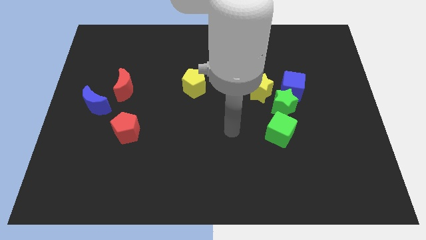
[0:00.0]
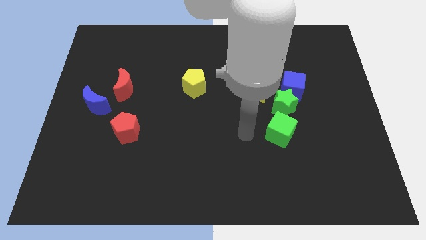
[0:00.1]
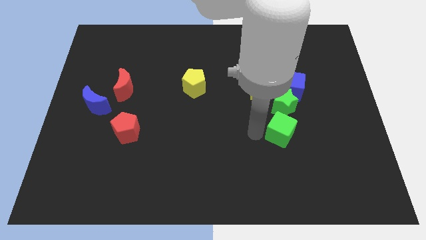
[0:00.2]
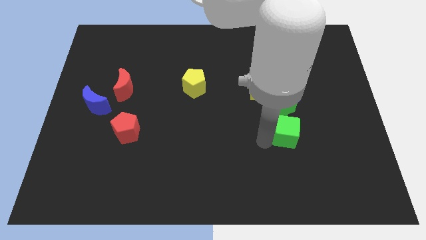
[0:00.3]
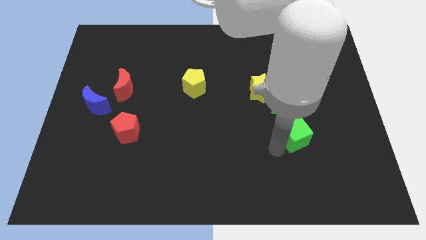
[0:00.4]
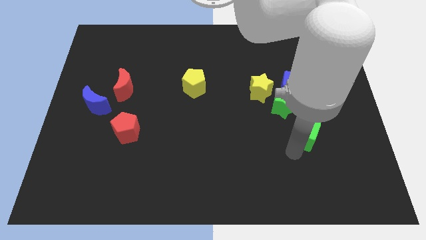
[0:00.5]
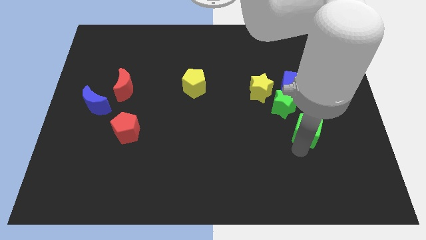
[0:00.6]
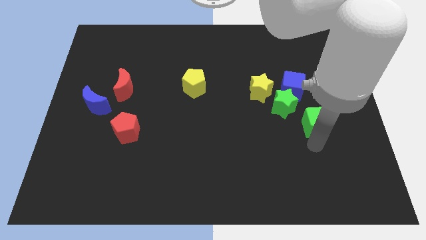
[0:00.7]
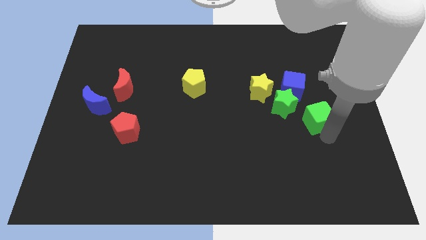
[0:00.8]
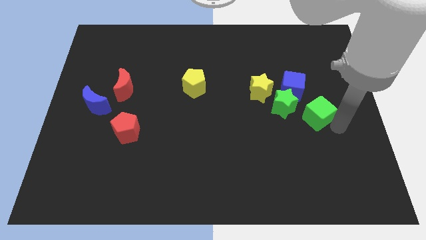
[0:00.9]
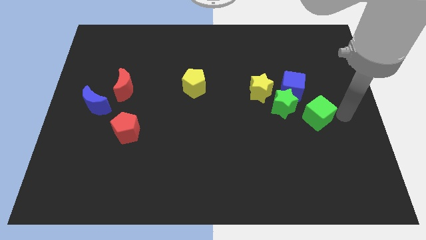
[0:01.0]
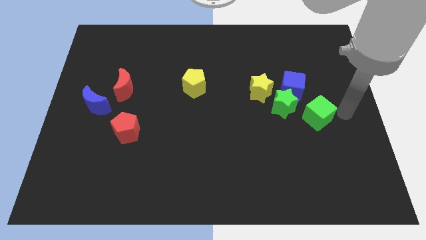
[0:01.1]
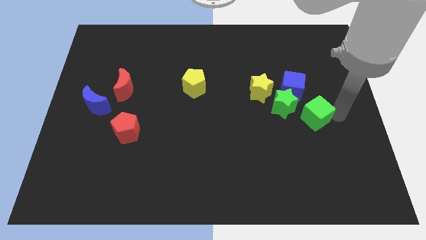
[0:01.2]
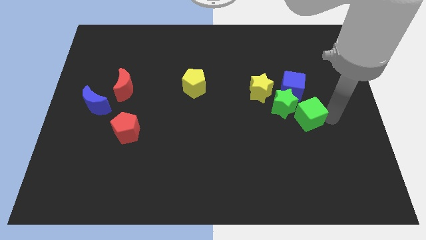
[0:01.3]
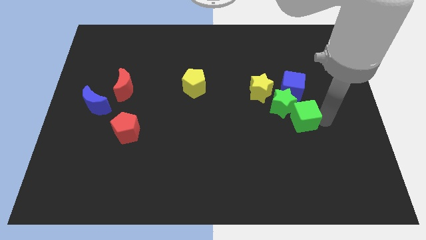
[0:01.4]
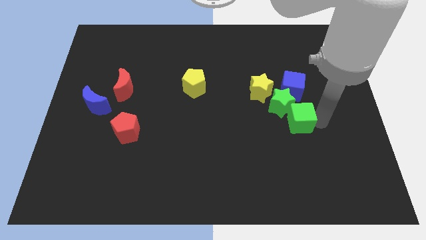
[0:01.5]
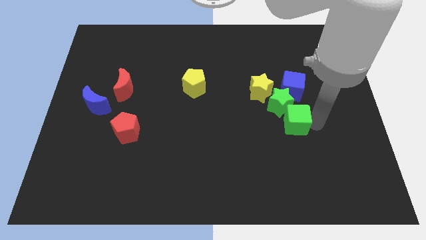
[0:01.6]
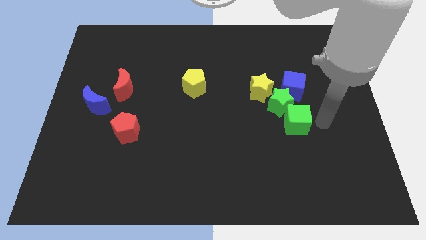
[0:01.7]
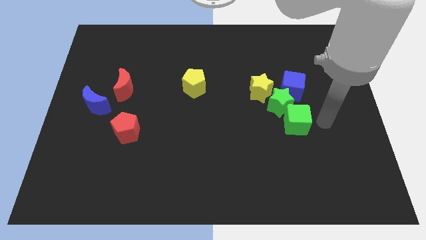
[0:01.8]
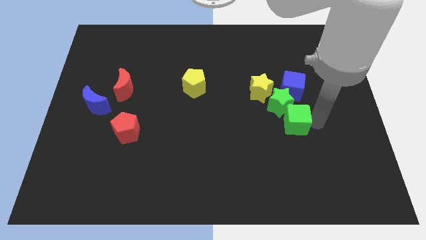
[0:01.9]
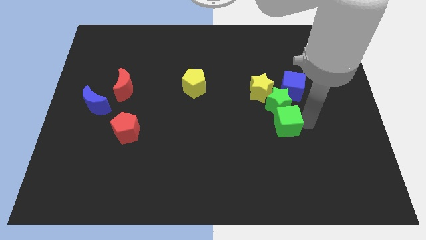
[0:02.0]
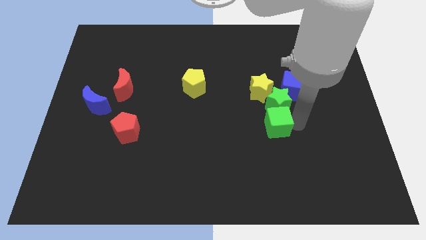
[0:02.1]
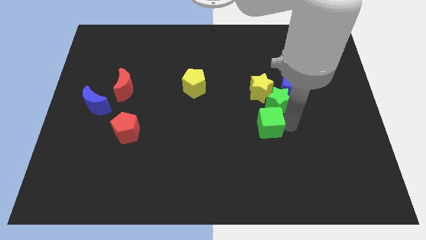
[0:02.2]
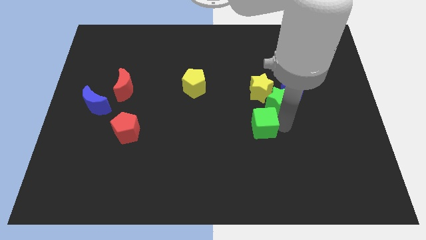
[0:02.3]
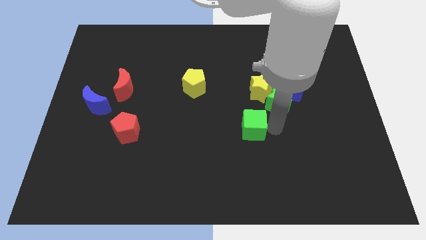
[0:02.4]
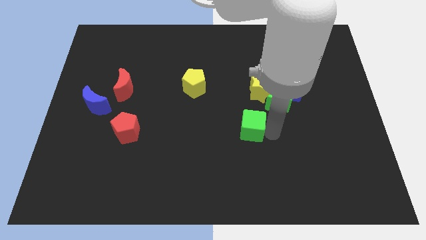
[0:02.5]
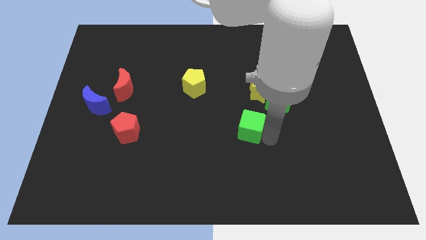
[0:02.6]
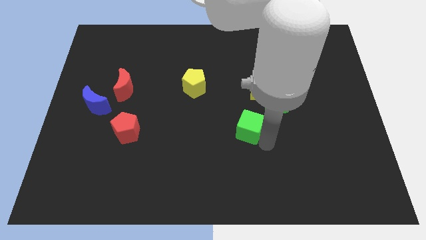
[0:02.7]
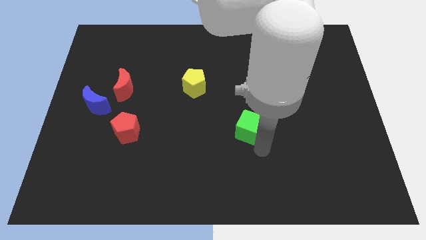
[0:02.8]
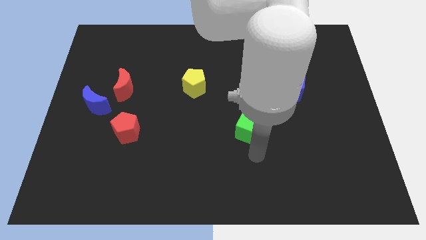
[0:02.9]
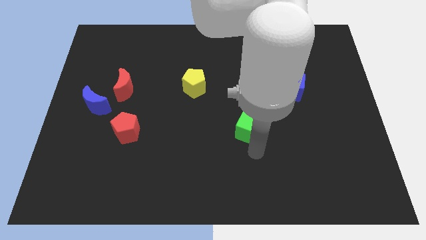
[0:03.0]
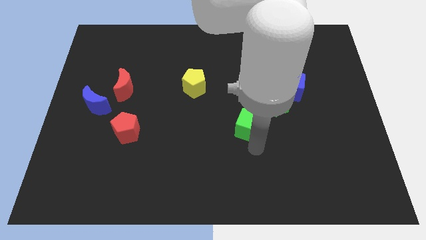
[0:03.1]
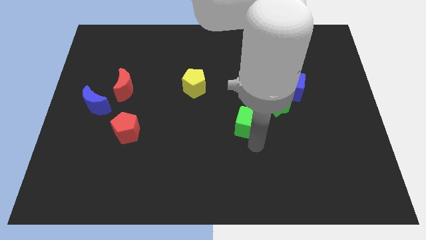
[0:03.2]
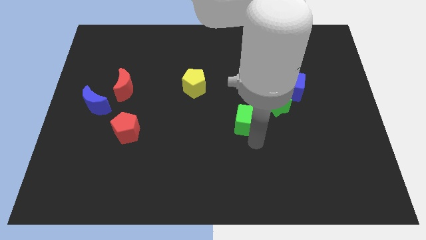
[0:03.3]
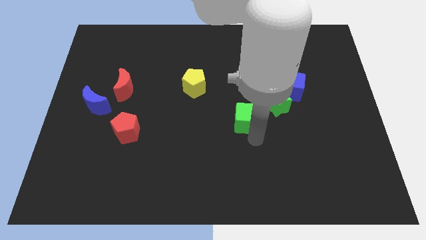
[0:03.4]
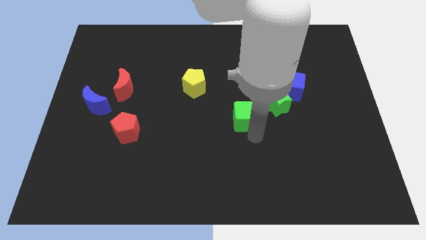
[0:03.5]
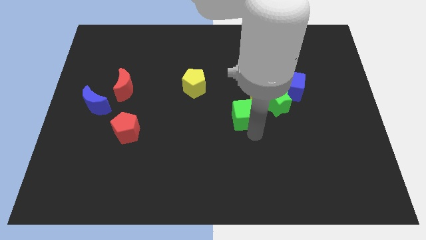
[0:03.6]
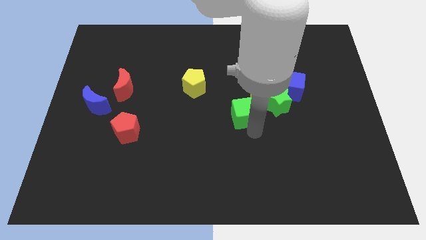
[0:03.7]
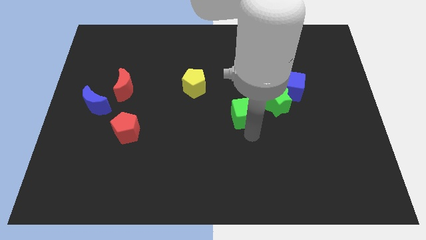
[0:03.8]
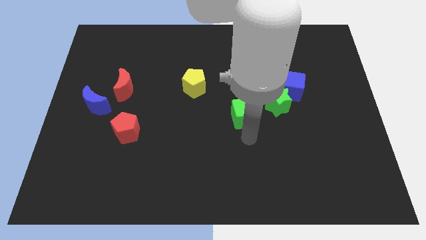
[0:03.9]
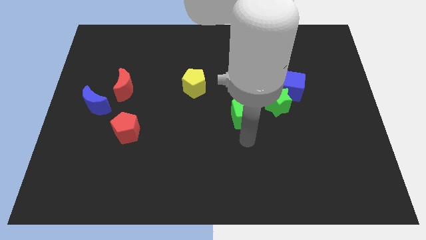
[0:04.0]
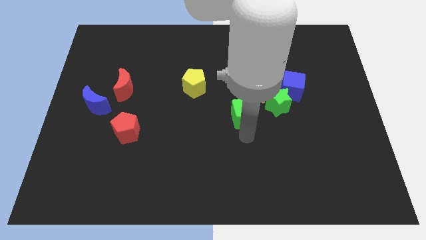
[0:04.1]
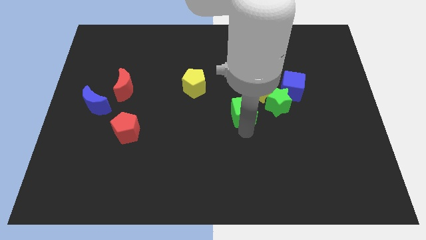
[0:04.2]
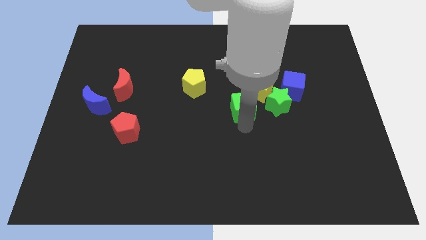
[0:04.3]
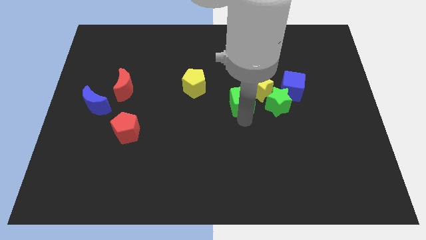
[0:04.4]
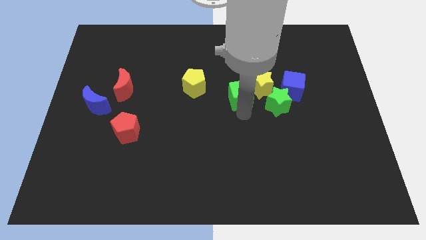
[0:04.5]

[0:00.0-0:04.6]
move the green cube somewhat upwards

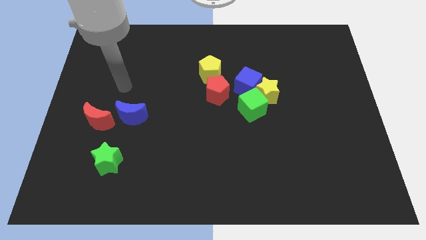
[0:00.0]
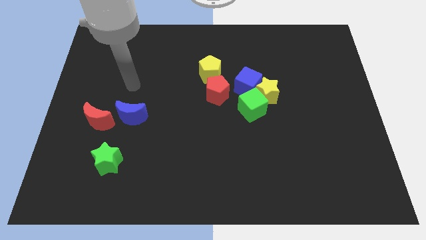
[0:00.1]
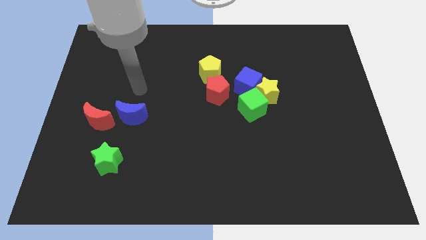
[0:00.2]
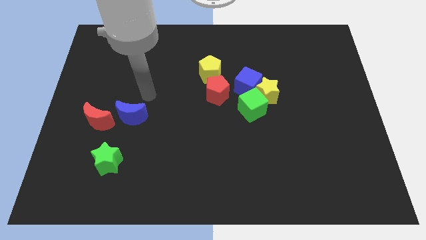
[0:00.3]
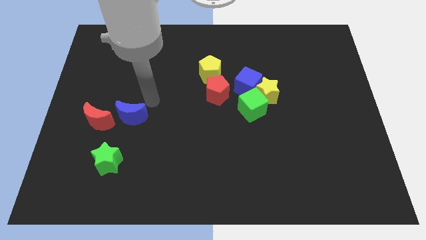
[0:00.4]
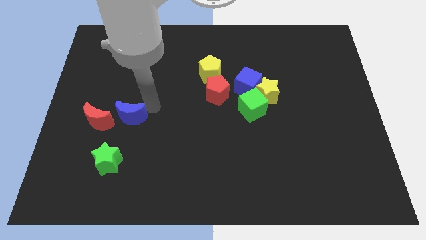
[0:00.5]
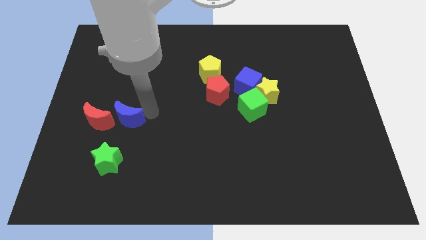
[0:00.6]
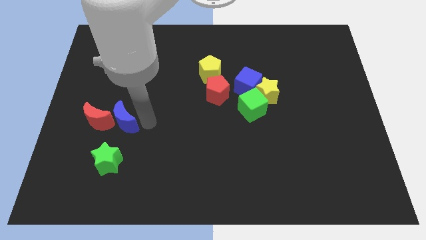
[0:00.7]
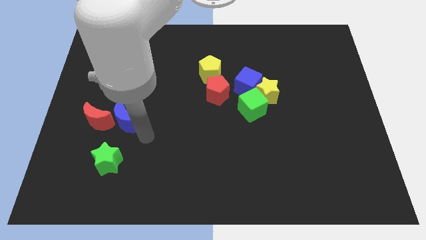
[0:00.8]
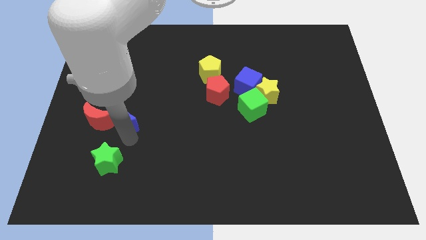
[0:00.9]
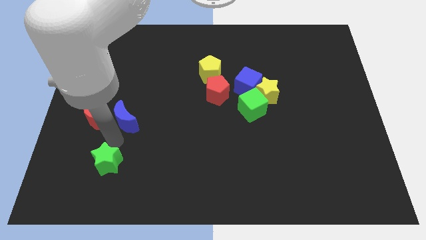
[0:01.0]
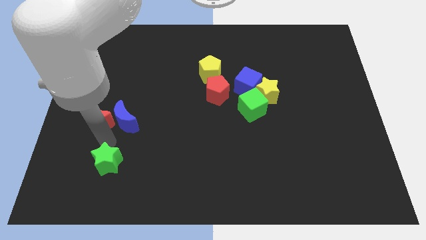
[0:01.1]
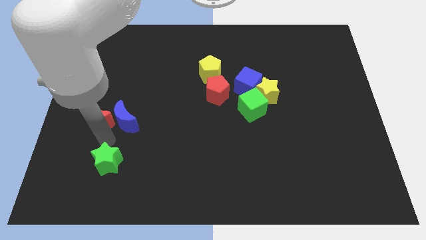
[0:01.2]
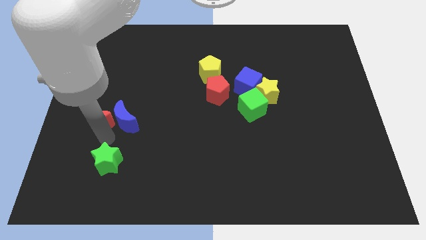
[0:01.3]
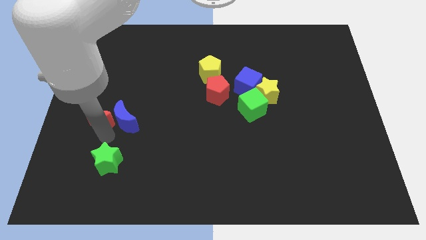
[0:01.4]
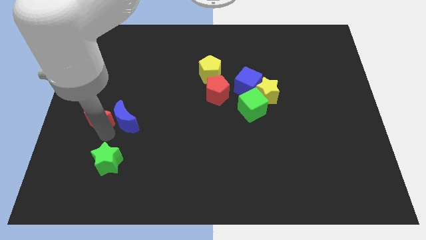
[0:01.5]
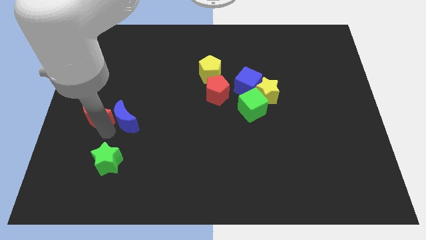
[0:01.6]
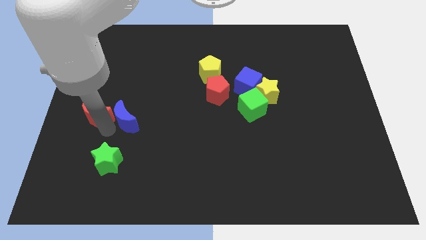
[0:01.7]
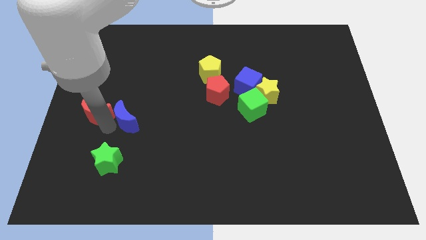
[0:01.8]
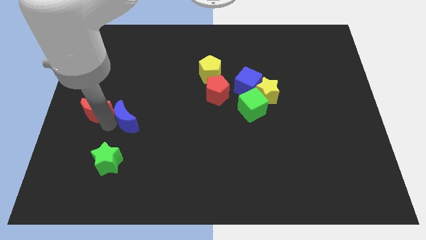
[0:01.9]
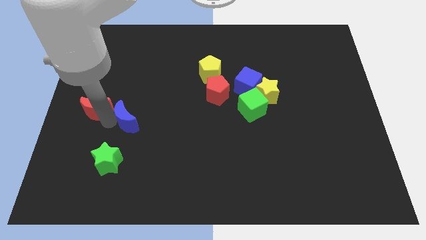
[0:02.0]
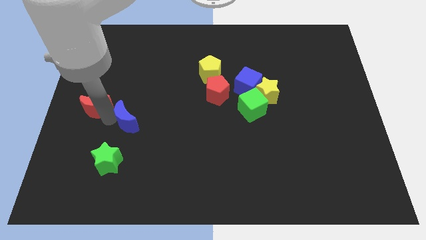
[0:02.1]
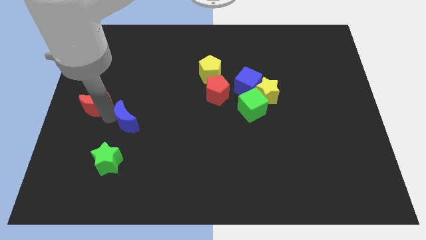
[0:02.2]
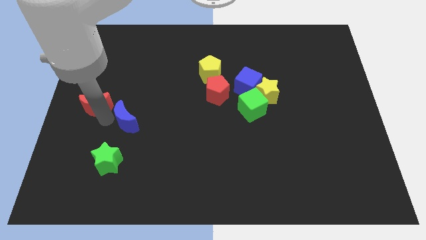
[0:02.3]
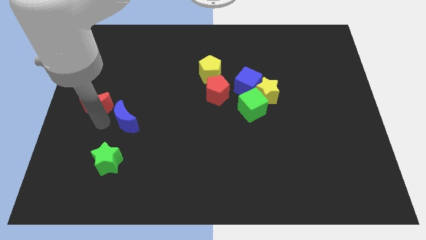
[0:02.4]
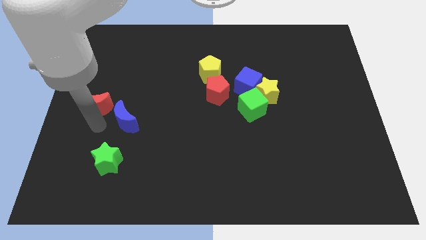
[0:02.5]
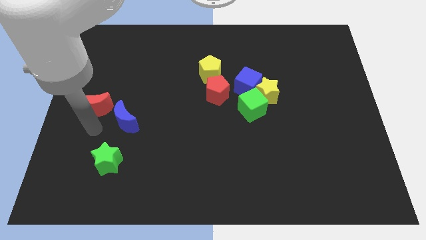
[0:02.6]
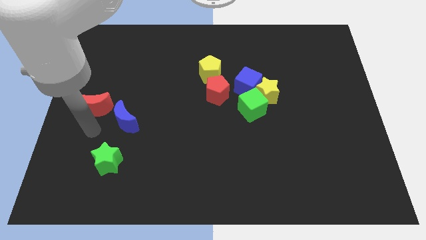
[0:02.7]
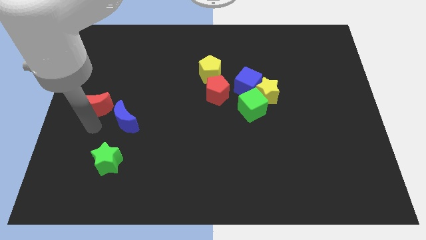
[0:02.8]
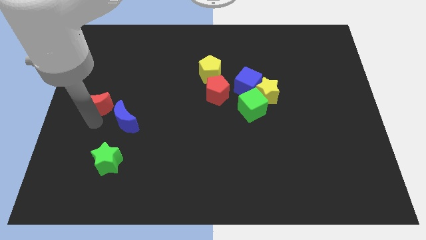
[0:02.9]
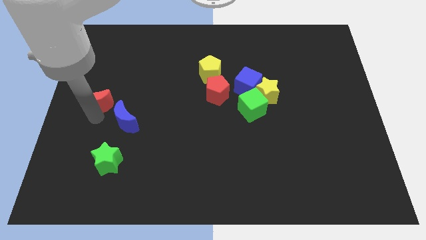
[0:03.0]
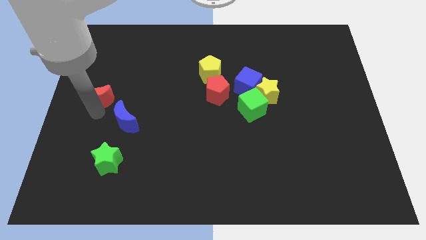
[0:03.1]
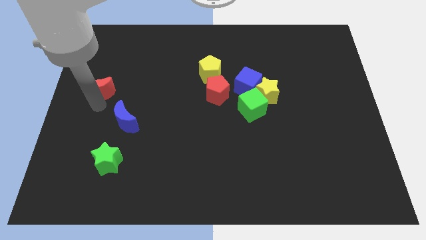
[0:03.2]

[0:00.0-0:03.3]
slide the red moon a little bit up

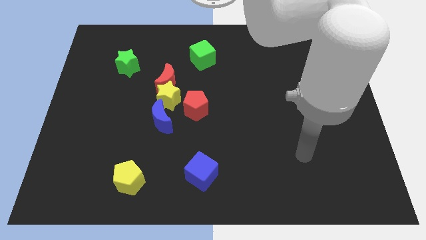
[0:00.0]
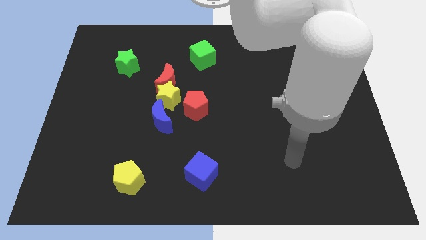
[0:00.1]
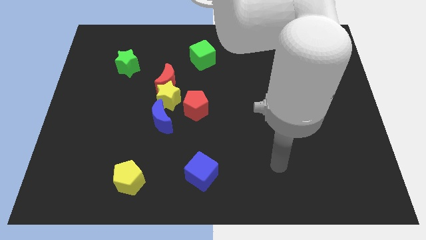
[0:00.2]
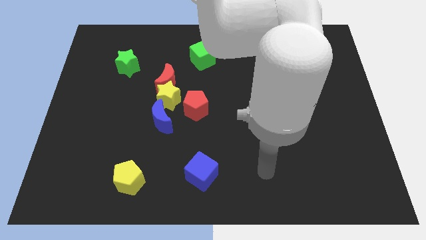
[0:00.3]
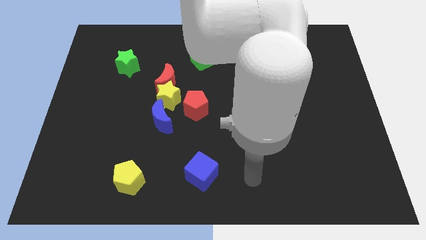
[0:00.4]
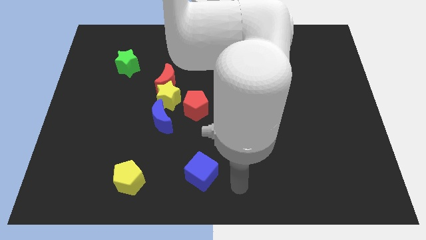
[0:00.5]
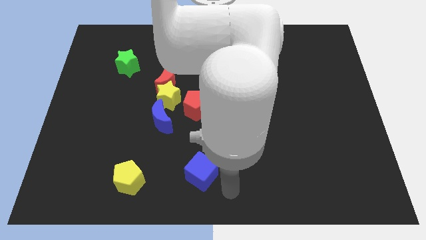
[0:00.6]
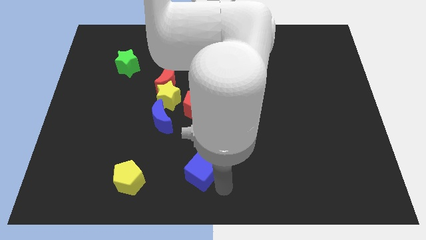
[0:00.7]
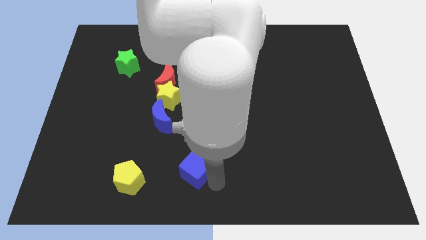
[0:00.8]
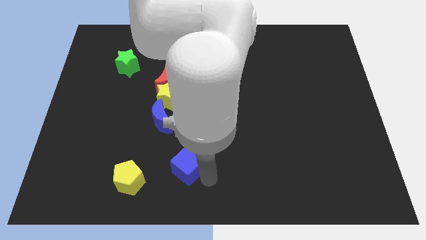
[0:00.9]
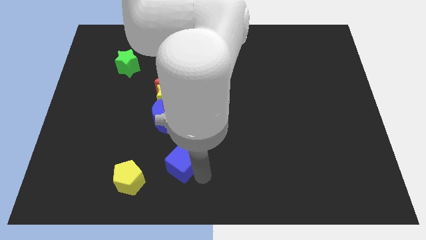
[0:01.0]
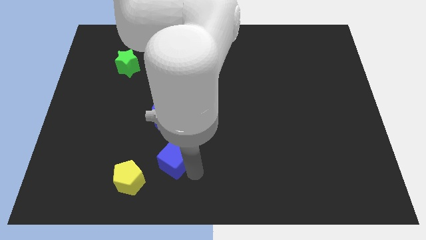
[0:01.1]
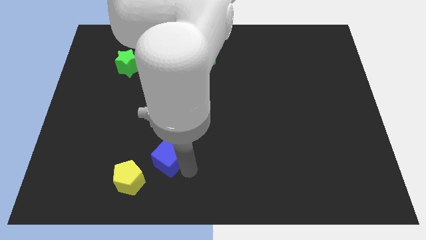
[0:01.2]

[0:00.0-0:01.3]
move the blue cube a little bit upwards and then to the left
